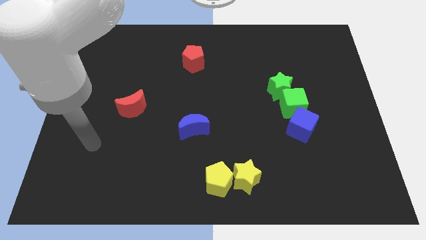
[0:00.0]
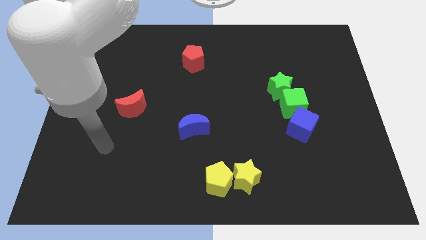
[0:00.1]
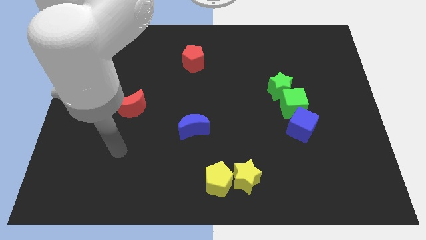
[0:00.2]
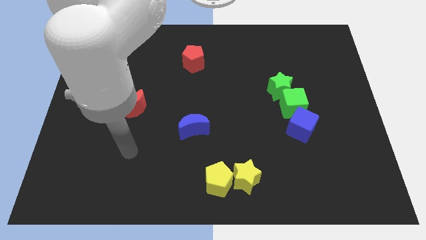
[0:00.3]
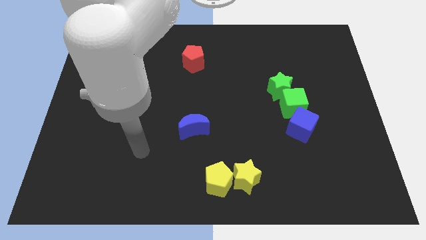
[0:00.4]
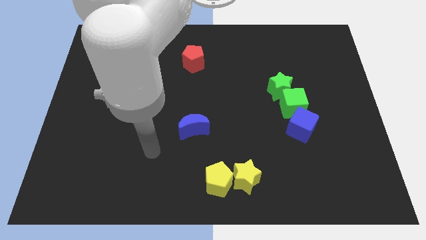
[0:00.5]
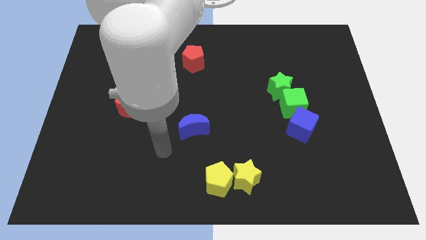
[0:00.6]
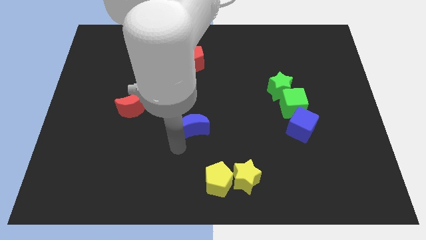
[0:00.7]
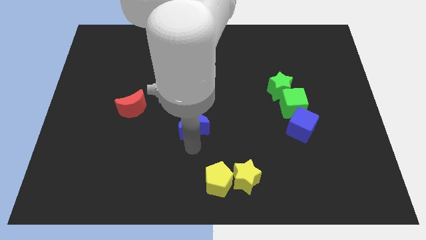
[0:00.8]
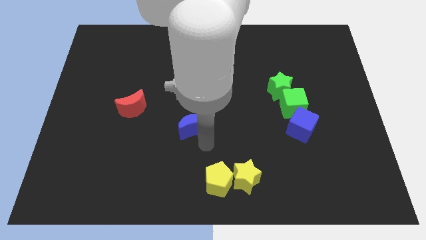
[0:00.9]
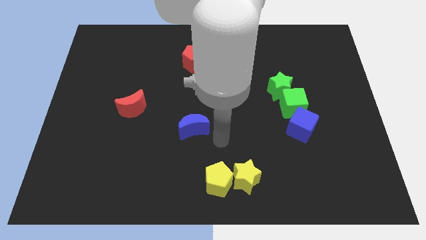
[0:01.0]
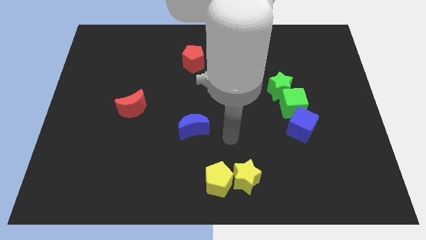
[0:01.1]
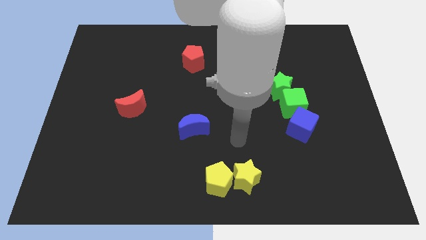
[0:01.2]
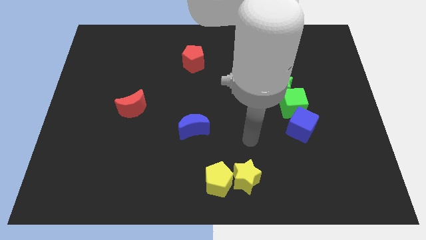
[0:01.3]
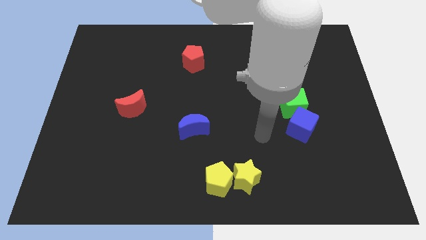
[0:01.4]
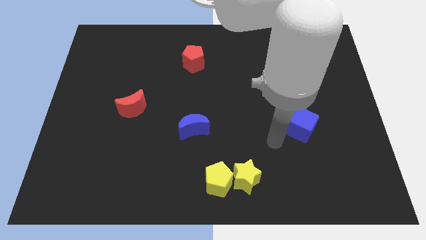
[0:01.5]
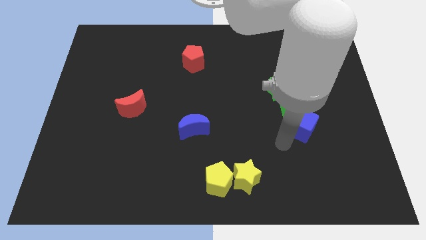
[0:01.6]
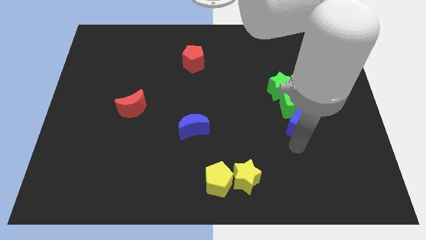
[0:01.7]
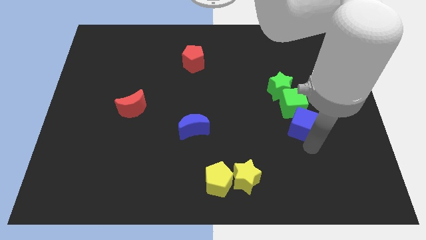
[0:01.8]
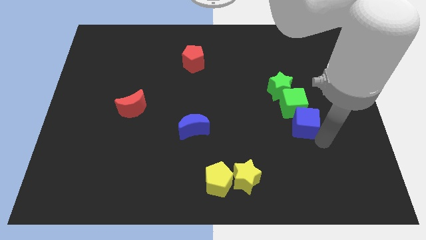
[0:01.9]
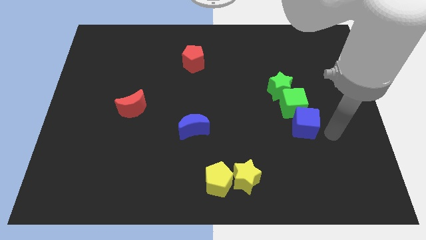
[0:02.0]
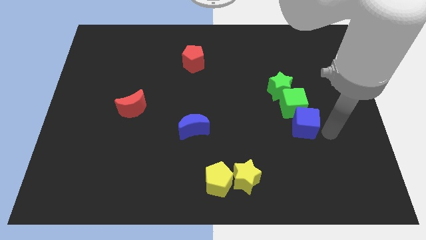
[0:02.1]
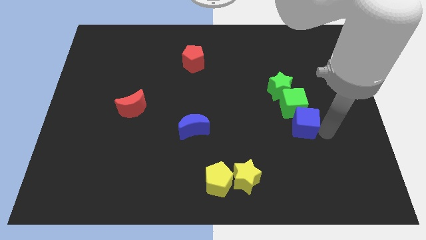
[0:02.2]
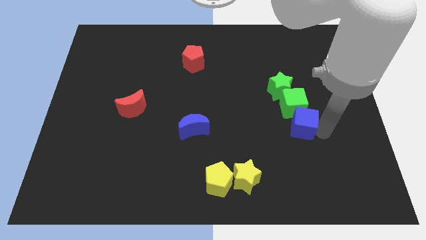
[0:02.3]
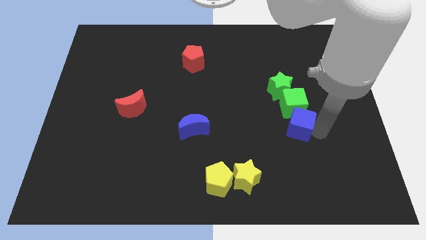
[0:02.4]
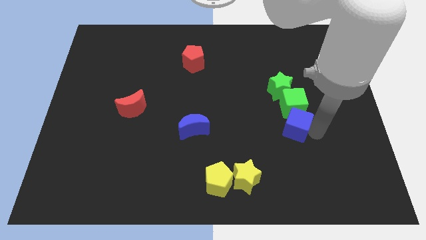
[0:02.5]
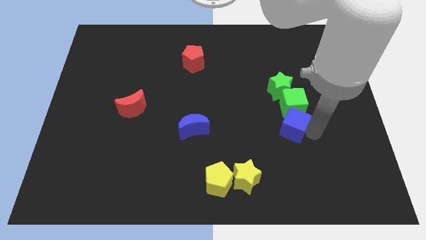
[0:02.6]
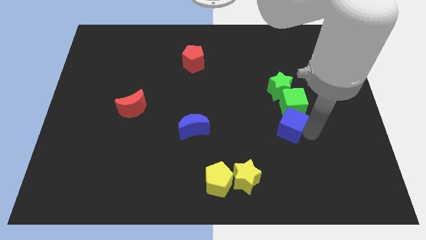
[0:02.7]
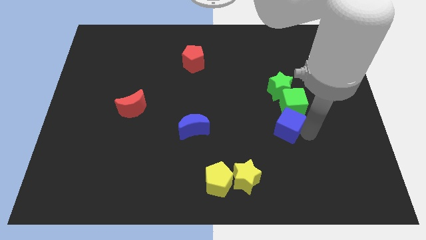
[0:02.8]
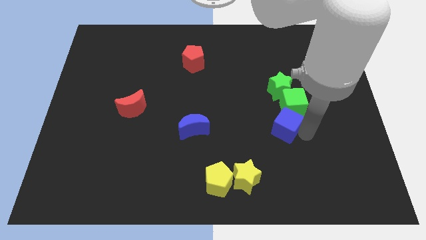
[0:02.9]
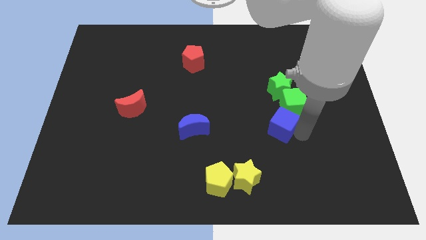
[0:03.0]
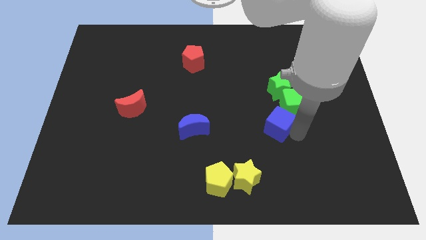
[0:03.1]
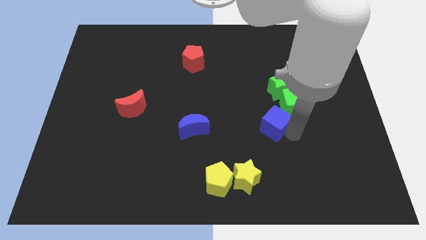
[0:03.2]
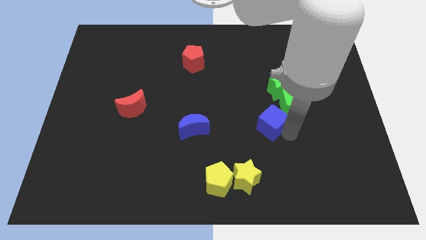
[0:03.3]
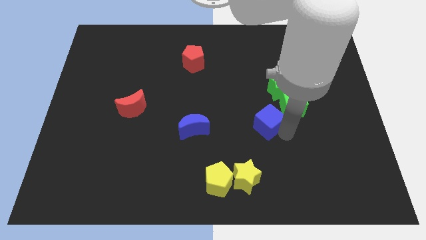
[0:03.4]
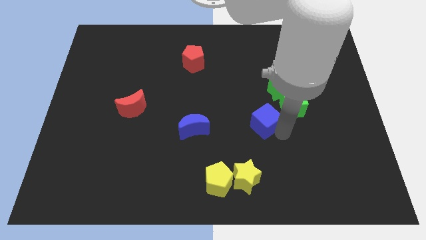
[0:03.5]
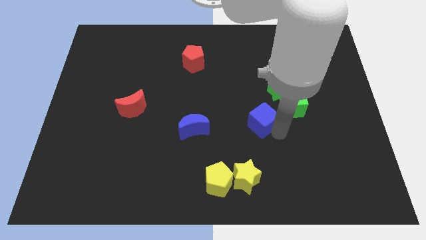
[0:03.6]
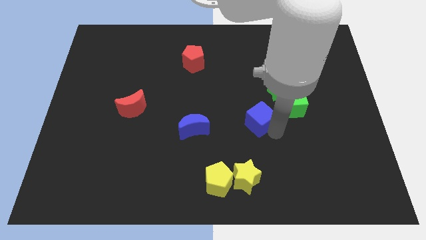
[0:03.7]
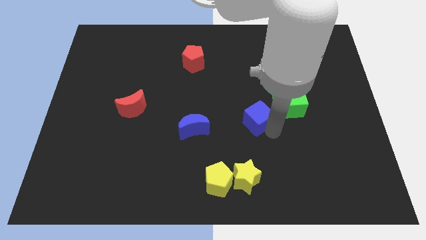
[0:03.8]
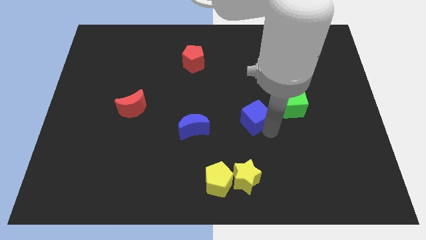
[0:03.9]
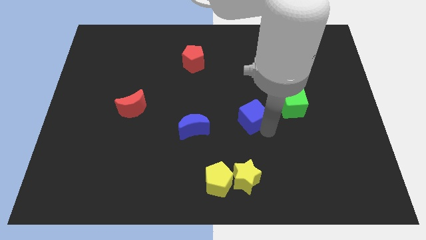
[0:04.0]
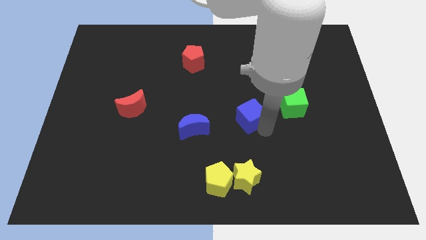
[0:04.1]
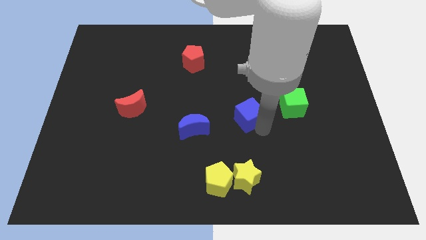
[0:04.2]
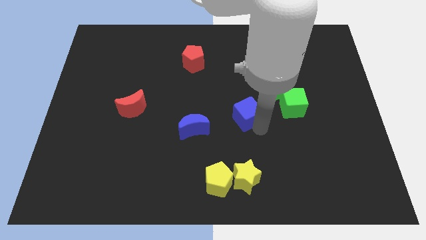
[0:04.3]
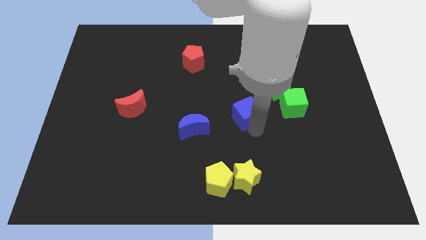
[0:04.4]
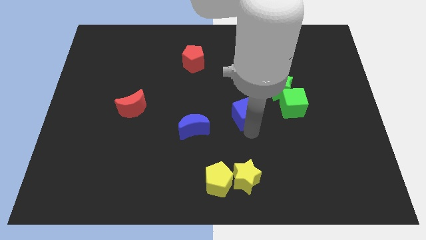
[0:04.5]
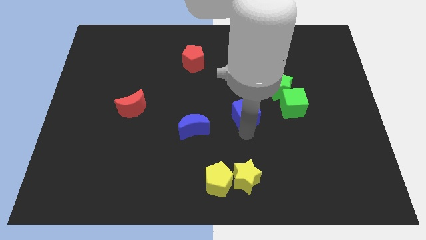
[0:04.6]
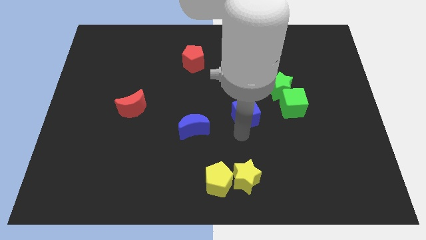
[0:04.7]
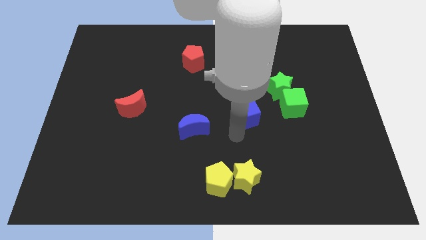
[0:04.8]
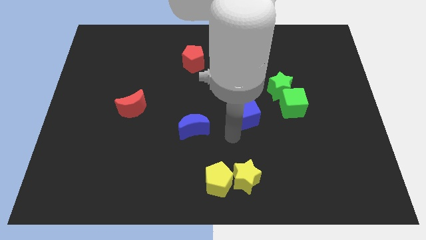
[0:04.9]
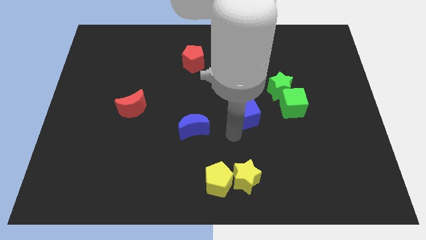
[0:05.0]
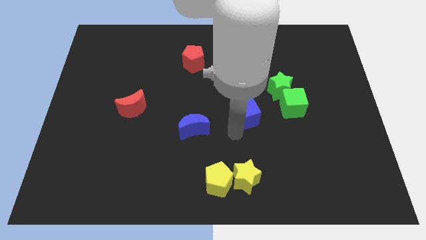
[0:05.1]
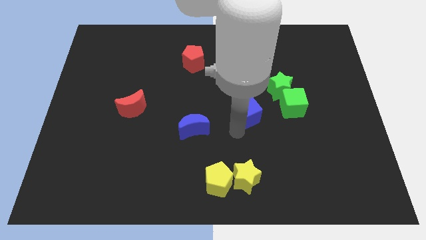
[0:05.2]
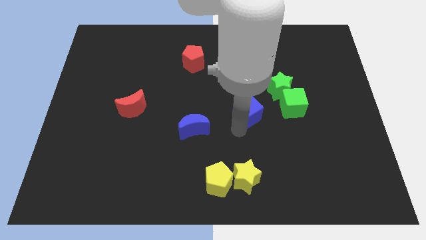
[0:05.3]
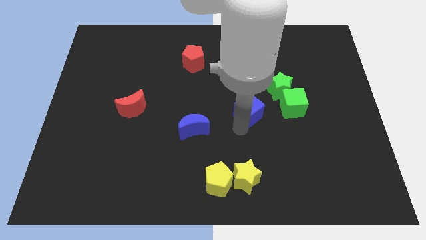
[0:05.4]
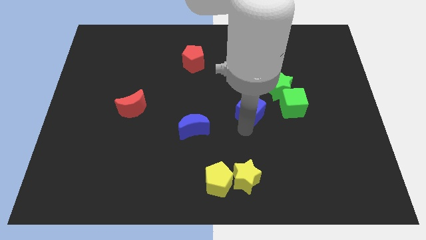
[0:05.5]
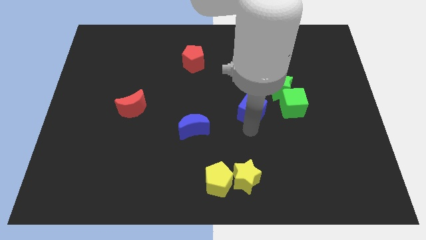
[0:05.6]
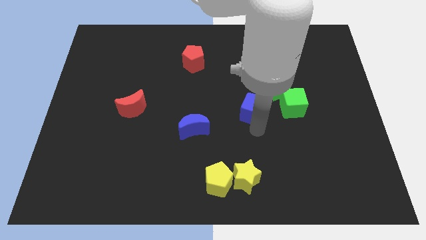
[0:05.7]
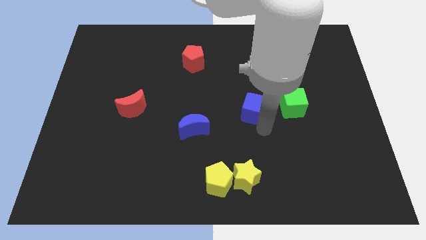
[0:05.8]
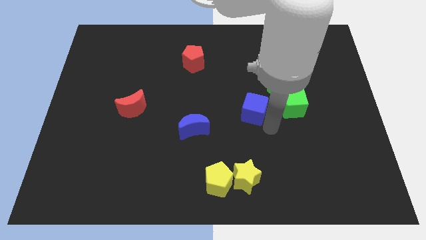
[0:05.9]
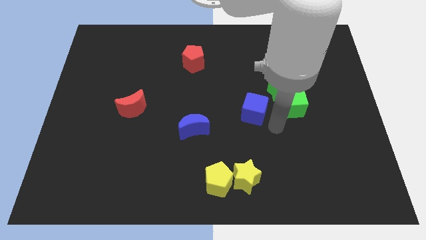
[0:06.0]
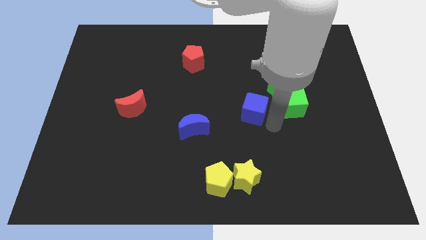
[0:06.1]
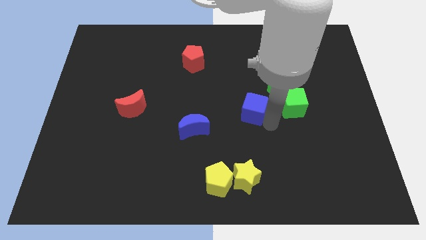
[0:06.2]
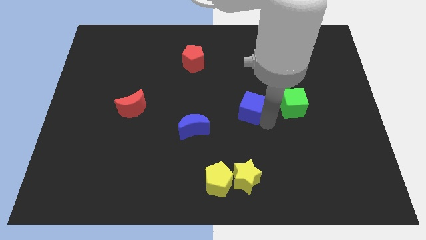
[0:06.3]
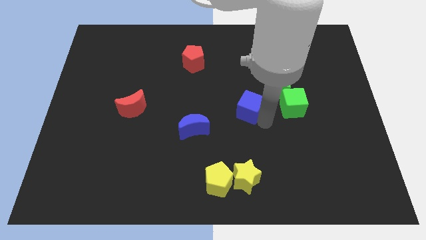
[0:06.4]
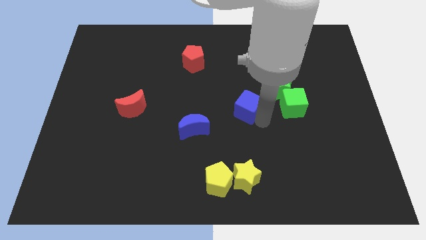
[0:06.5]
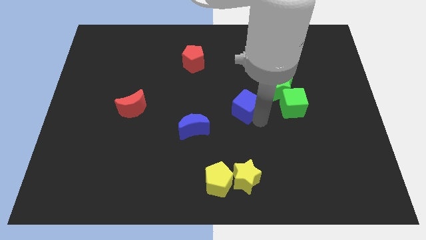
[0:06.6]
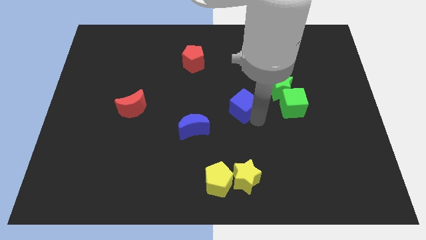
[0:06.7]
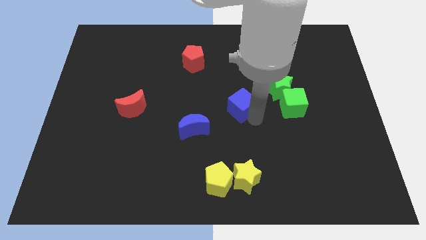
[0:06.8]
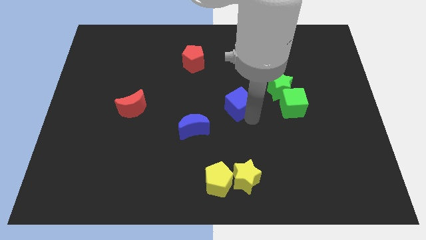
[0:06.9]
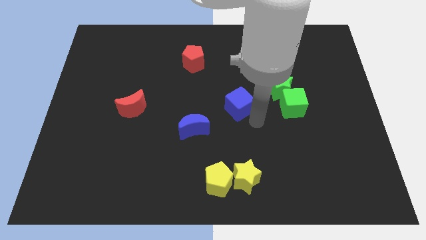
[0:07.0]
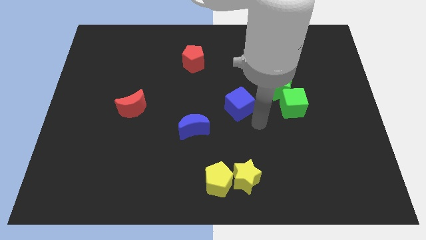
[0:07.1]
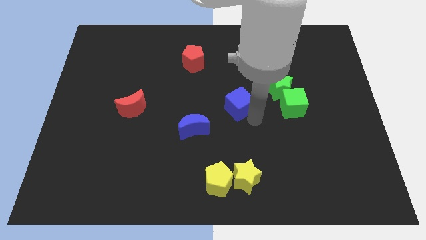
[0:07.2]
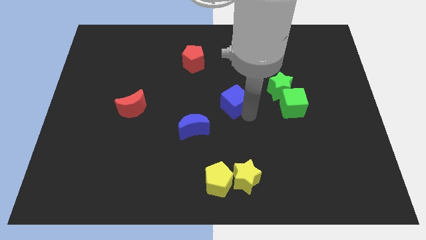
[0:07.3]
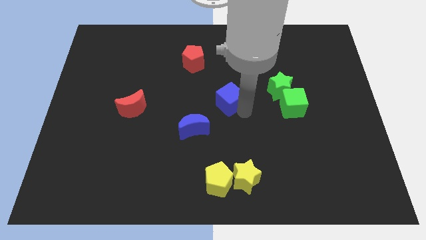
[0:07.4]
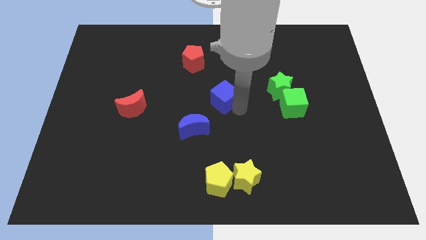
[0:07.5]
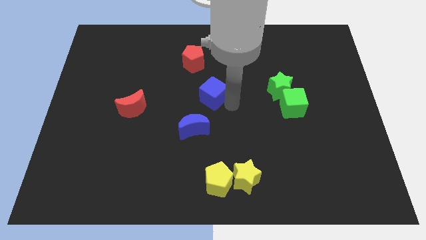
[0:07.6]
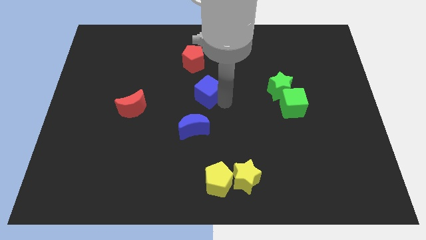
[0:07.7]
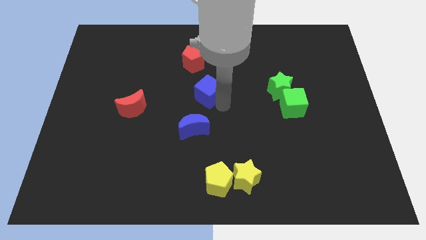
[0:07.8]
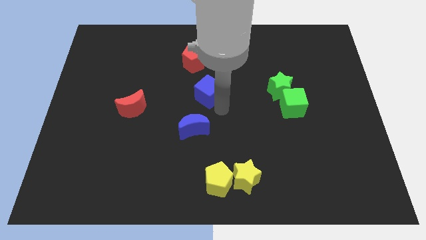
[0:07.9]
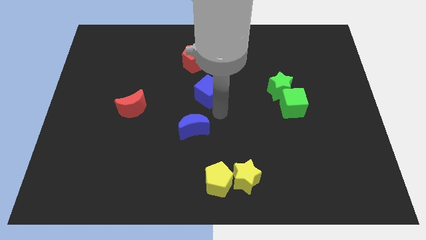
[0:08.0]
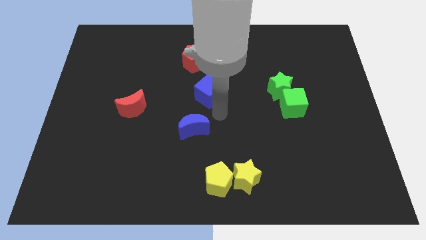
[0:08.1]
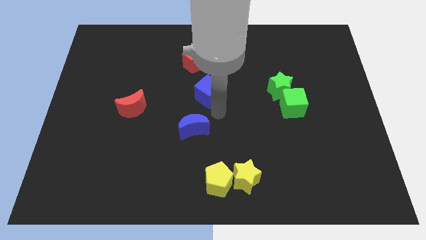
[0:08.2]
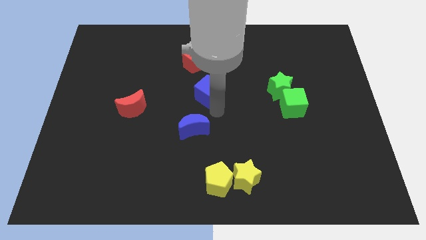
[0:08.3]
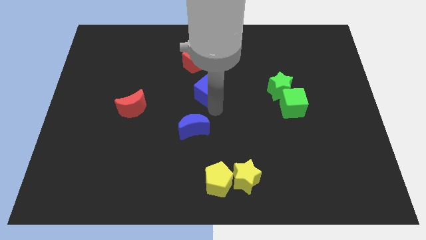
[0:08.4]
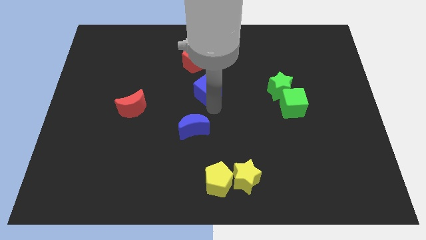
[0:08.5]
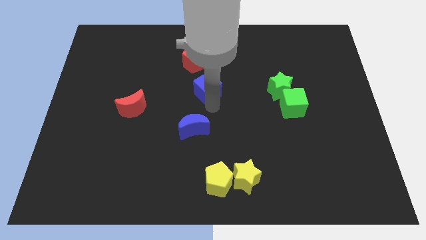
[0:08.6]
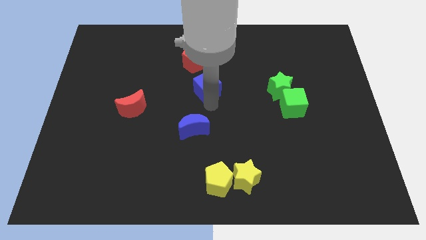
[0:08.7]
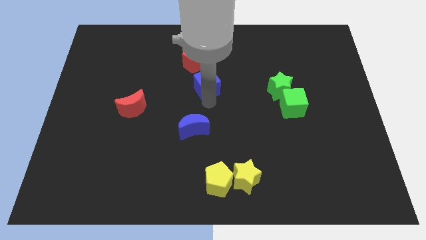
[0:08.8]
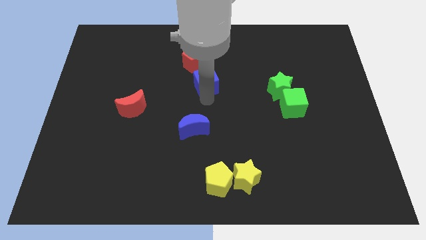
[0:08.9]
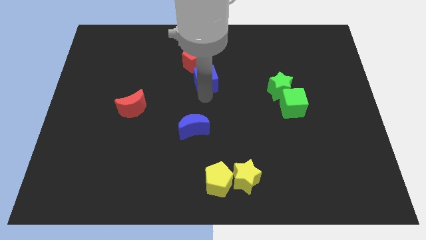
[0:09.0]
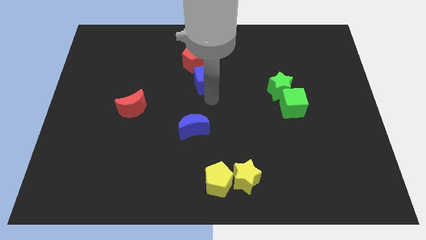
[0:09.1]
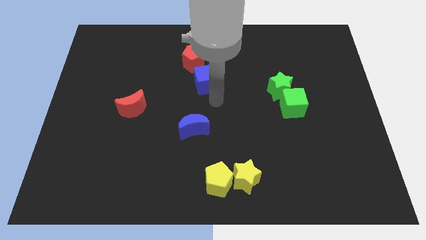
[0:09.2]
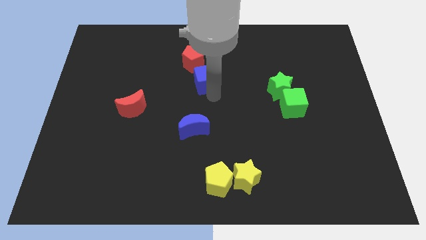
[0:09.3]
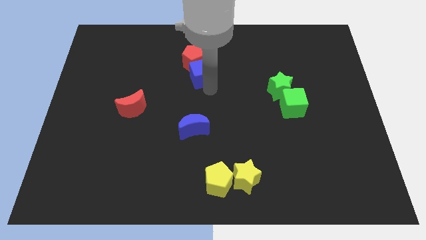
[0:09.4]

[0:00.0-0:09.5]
put the blue cube to the red pentagon
